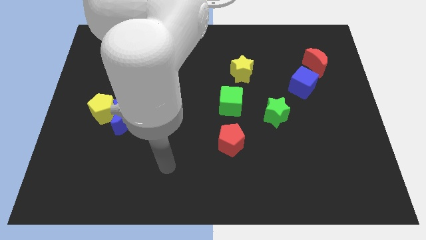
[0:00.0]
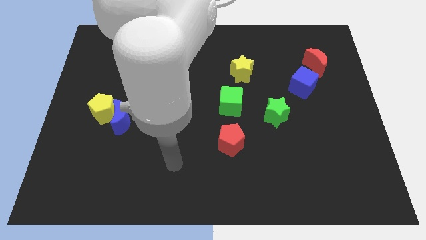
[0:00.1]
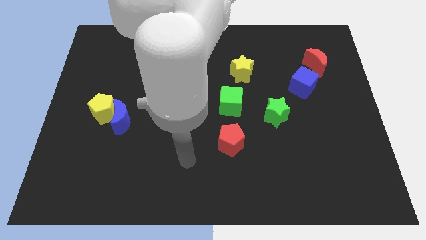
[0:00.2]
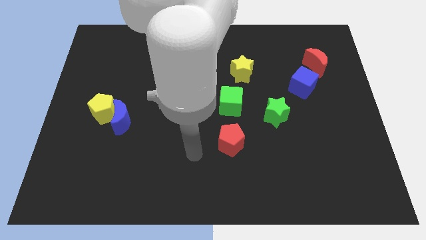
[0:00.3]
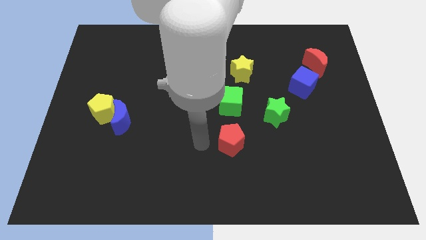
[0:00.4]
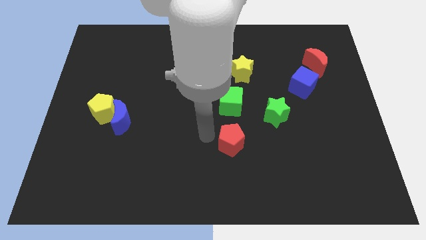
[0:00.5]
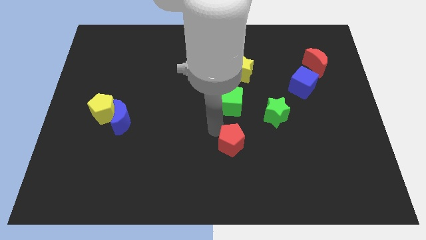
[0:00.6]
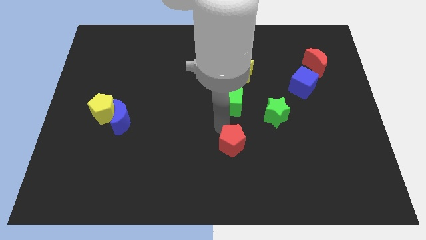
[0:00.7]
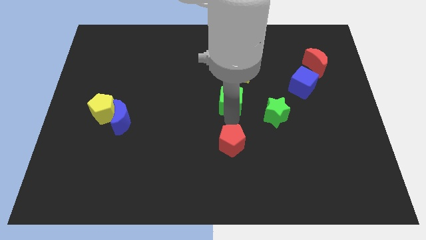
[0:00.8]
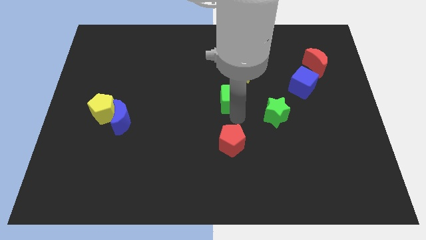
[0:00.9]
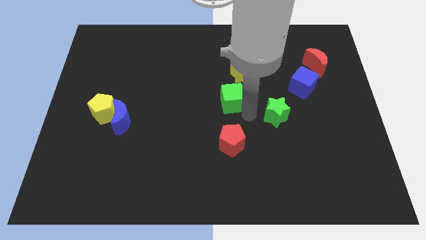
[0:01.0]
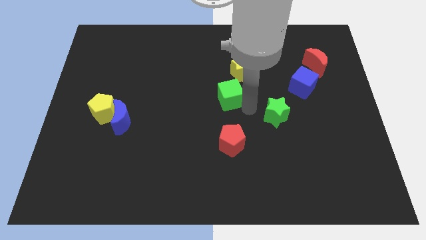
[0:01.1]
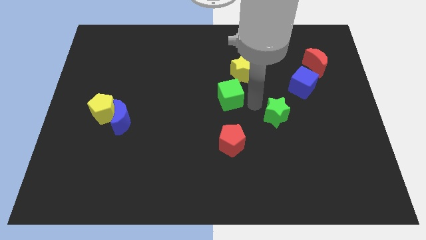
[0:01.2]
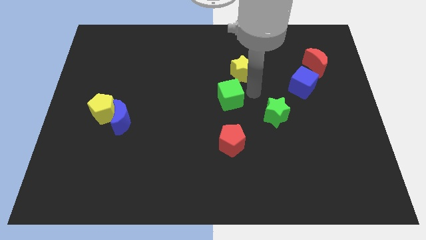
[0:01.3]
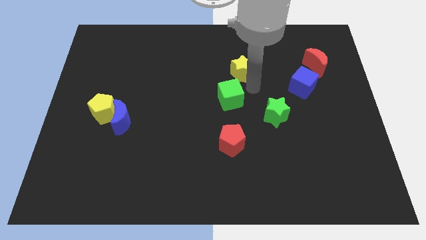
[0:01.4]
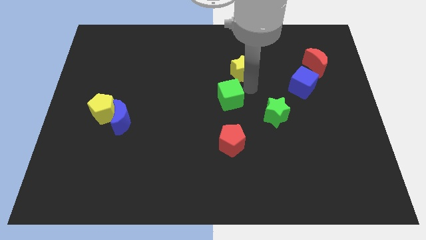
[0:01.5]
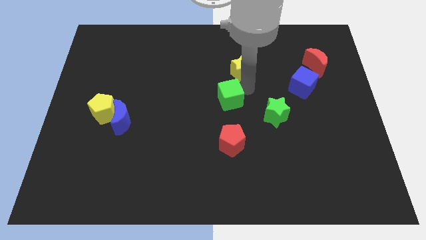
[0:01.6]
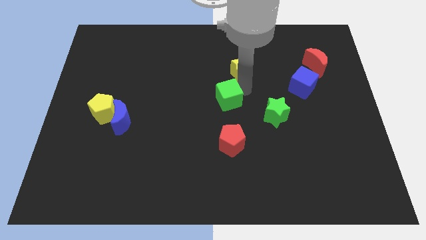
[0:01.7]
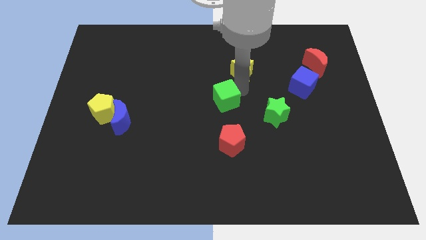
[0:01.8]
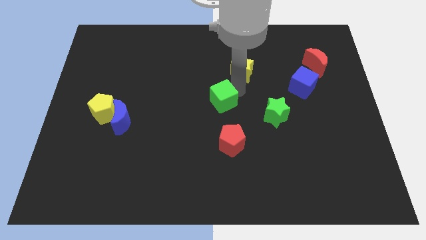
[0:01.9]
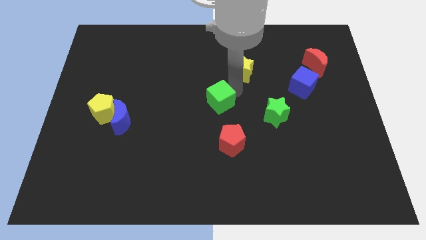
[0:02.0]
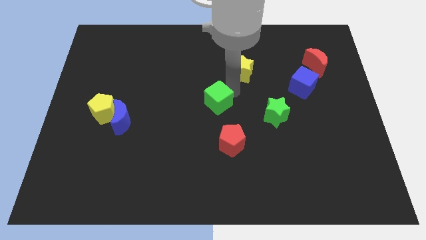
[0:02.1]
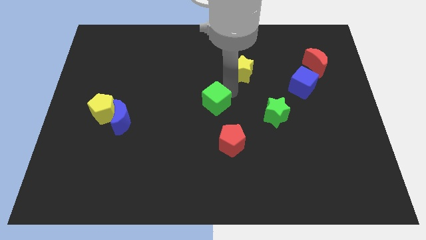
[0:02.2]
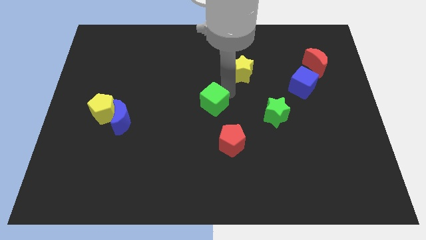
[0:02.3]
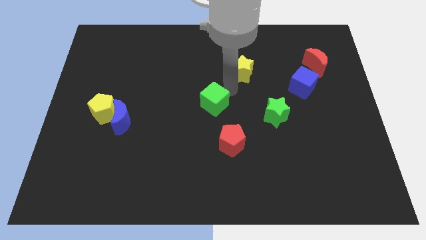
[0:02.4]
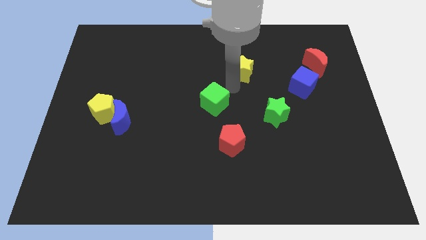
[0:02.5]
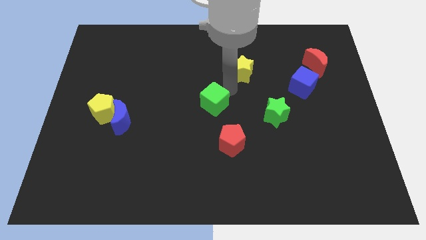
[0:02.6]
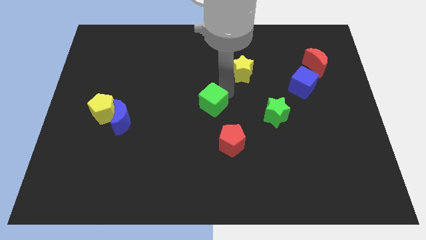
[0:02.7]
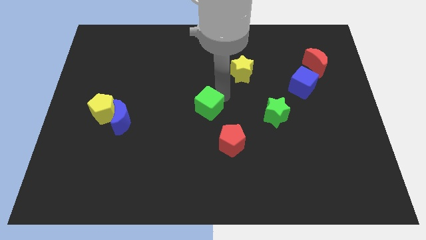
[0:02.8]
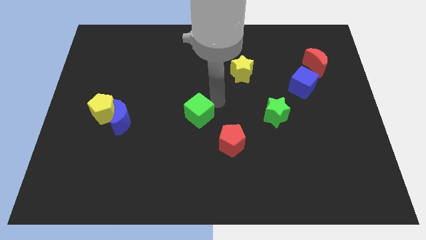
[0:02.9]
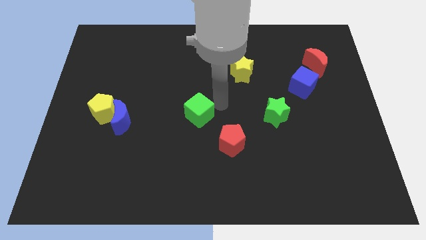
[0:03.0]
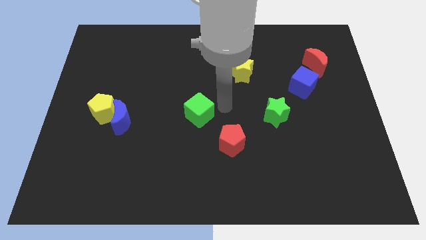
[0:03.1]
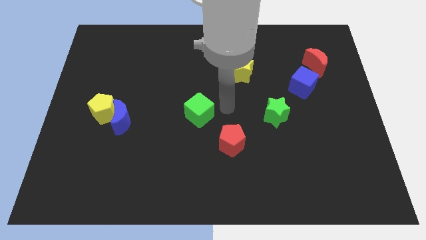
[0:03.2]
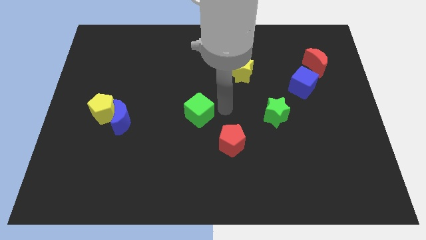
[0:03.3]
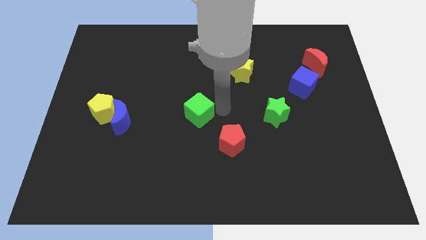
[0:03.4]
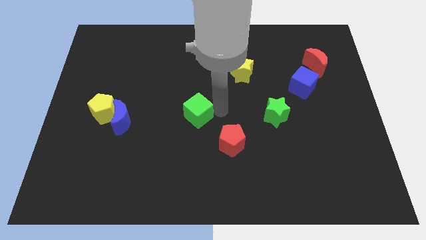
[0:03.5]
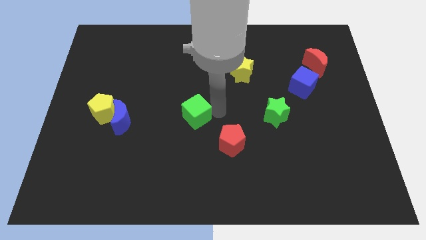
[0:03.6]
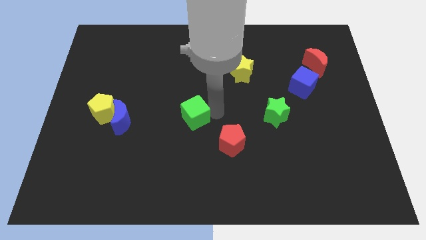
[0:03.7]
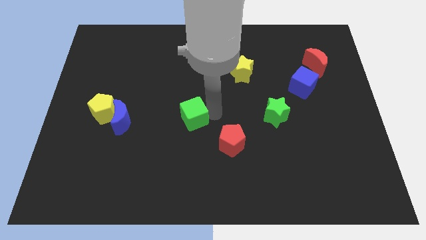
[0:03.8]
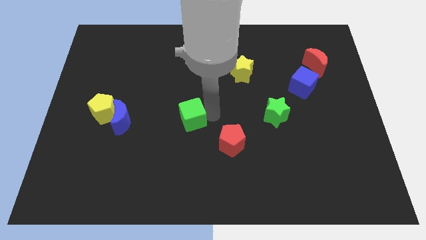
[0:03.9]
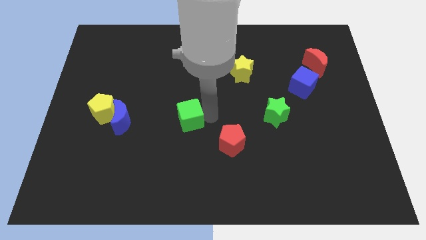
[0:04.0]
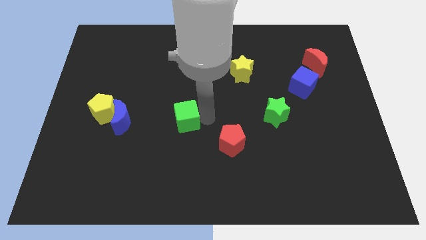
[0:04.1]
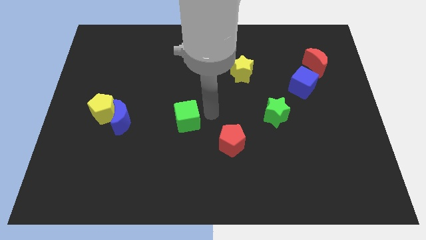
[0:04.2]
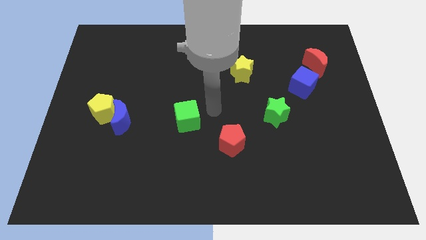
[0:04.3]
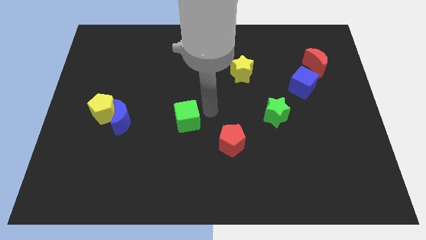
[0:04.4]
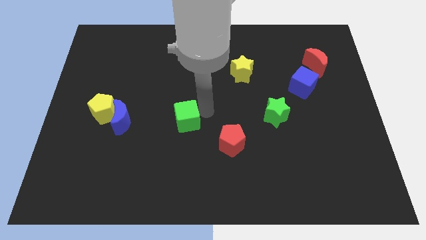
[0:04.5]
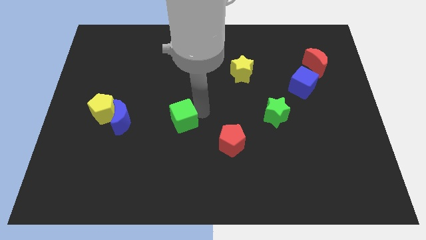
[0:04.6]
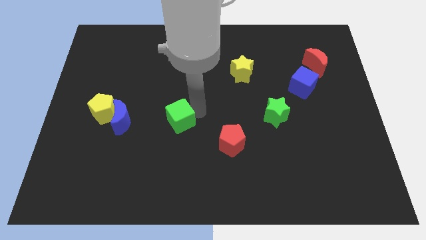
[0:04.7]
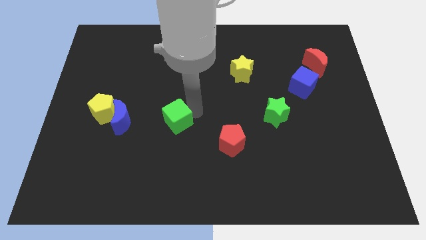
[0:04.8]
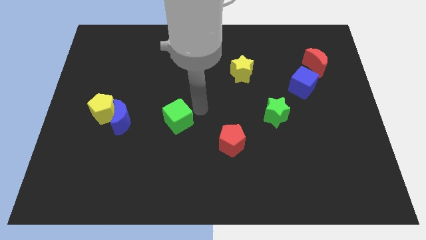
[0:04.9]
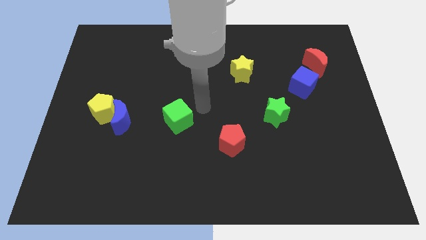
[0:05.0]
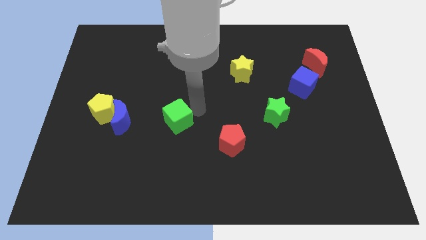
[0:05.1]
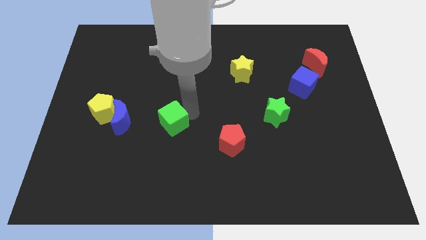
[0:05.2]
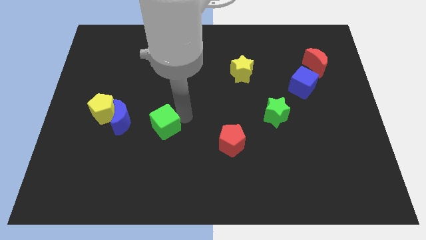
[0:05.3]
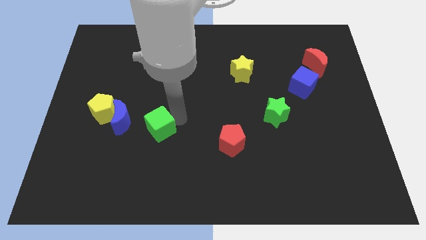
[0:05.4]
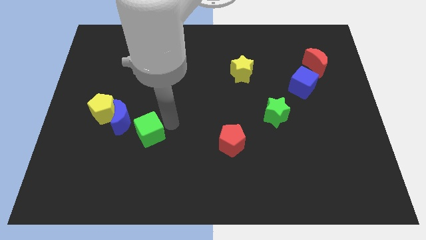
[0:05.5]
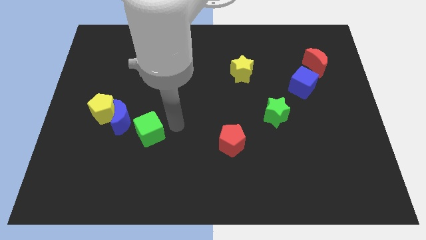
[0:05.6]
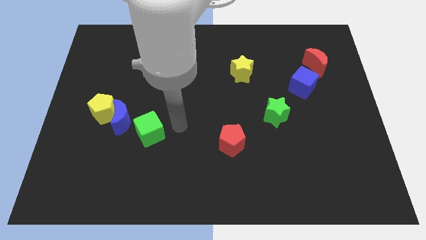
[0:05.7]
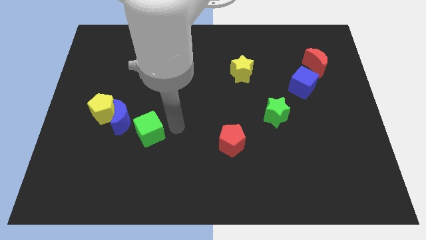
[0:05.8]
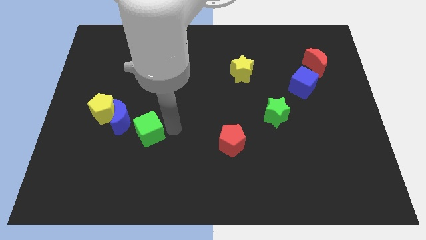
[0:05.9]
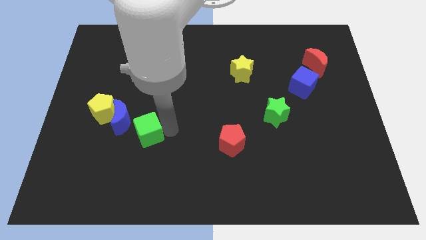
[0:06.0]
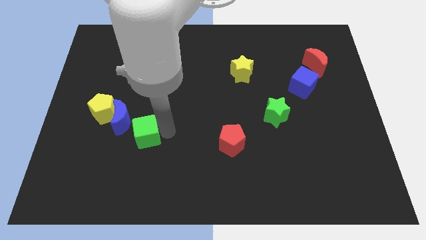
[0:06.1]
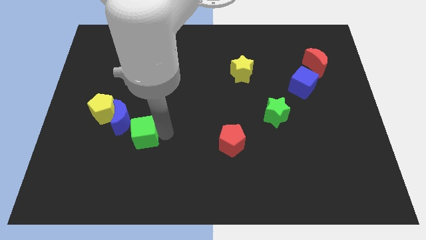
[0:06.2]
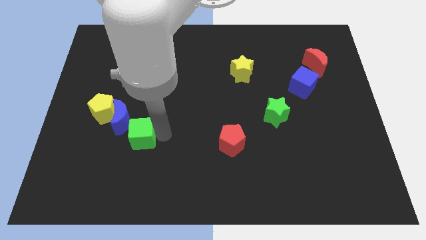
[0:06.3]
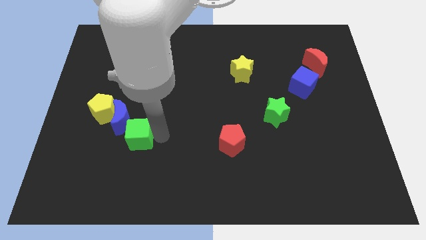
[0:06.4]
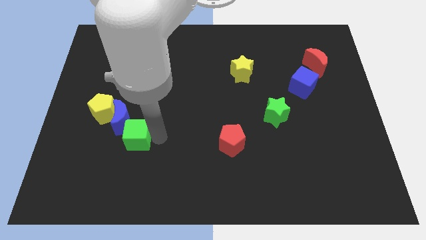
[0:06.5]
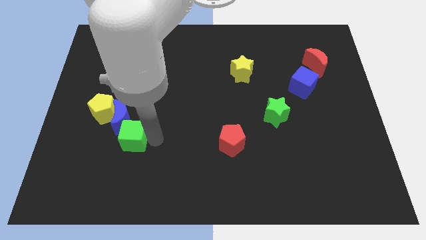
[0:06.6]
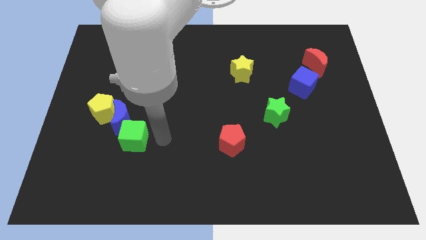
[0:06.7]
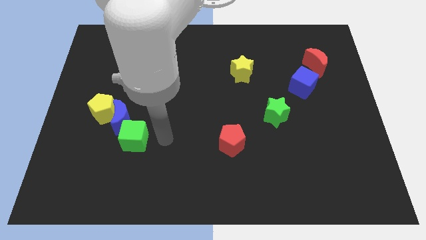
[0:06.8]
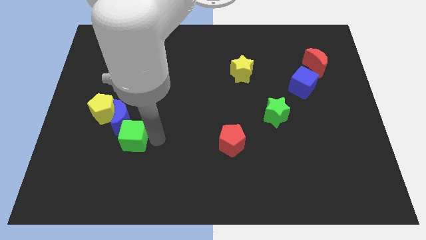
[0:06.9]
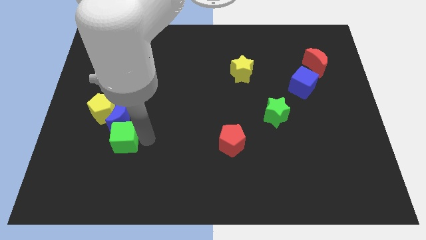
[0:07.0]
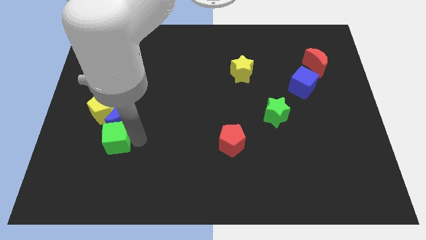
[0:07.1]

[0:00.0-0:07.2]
slide the green cube diagonally down and to the left of the blue moon
